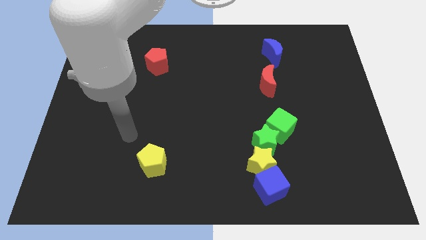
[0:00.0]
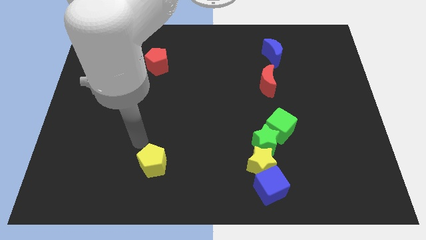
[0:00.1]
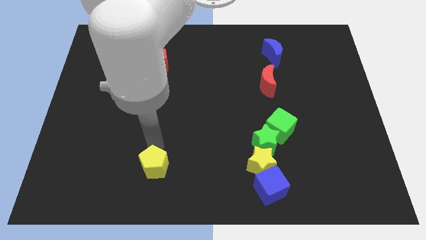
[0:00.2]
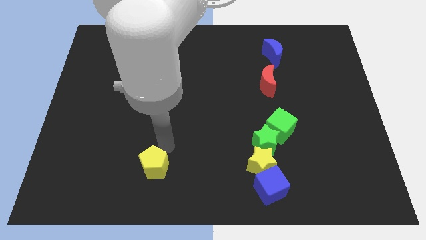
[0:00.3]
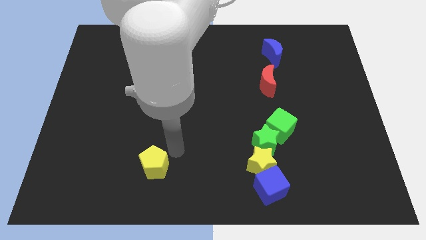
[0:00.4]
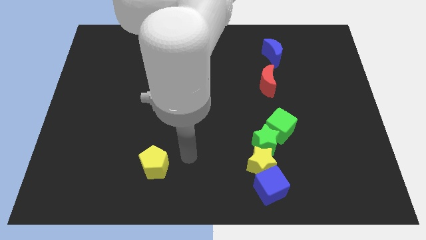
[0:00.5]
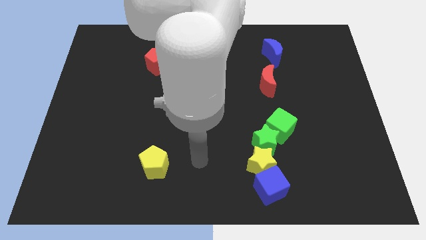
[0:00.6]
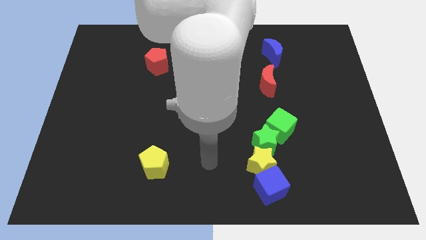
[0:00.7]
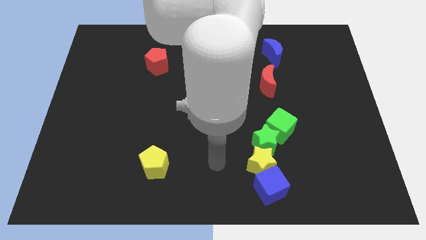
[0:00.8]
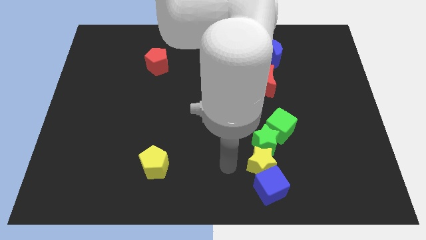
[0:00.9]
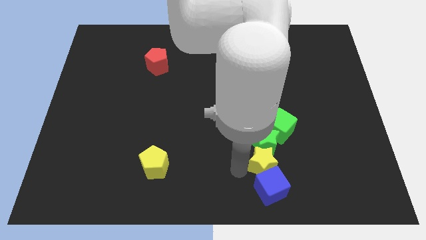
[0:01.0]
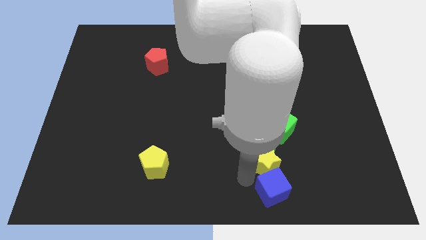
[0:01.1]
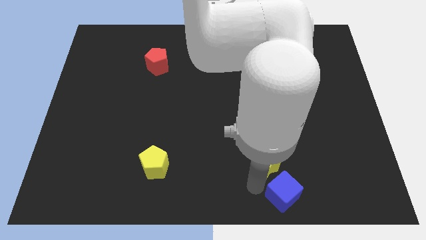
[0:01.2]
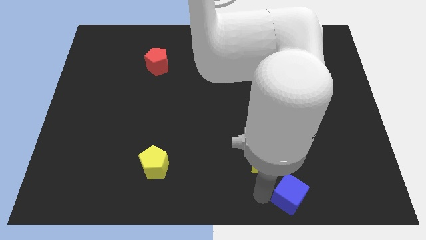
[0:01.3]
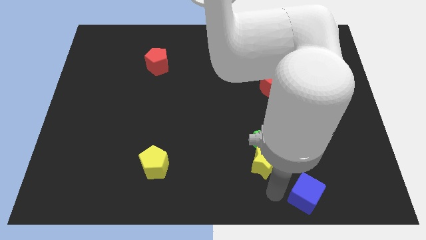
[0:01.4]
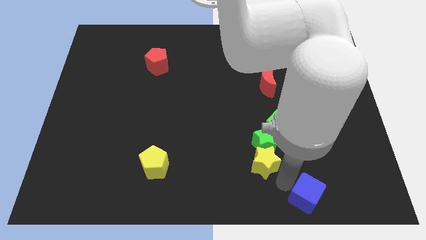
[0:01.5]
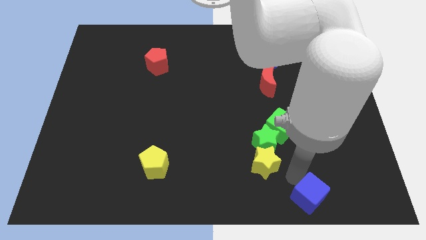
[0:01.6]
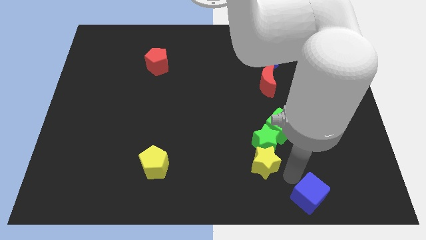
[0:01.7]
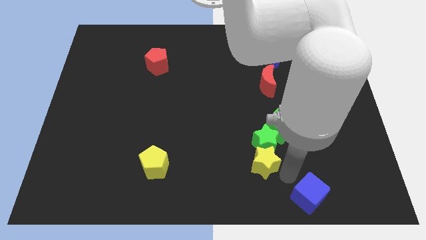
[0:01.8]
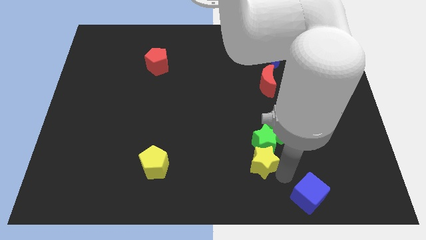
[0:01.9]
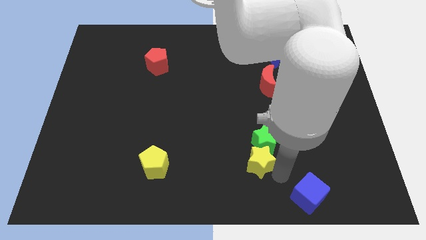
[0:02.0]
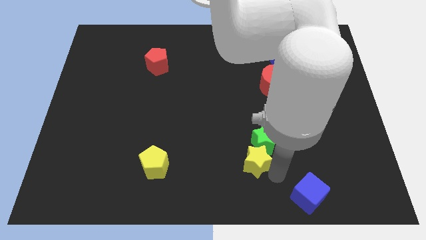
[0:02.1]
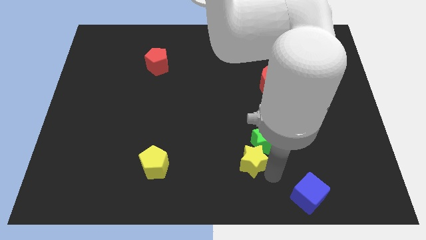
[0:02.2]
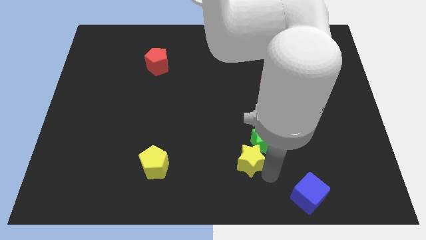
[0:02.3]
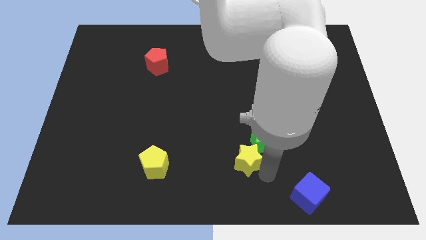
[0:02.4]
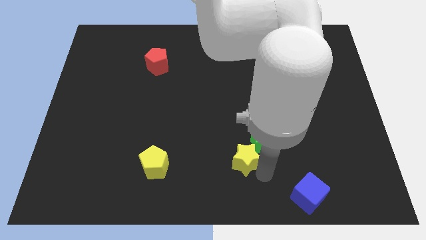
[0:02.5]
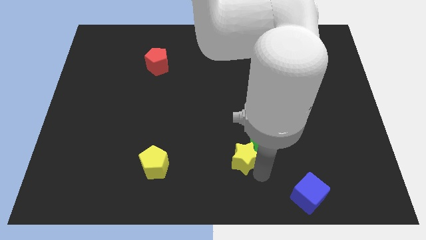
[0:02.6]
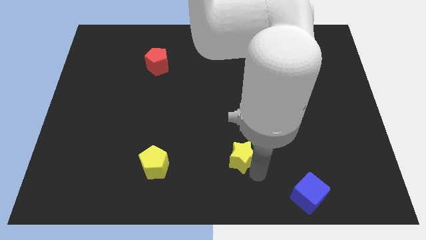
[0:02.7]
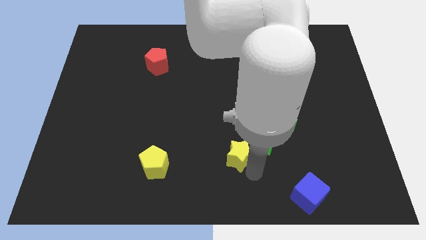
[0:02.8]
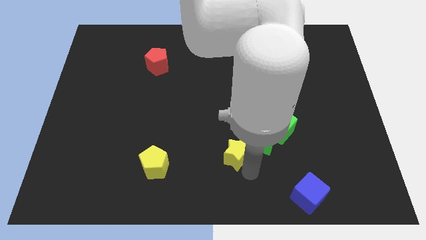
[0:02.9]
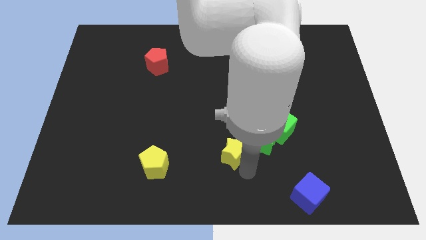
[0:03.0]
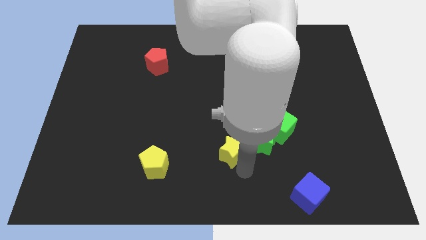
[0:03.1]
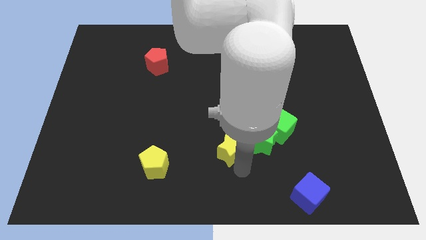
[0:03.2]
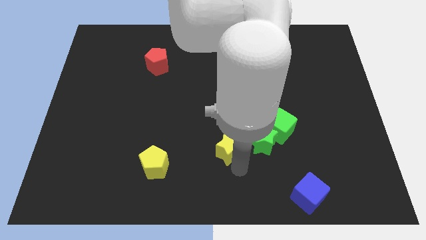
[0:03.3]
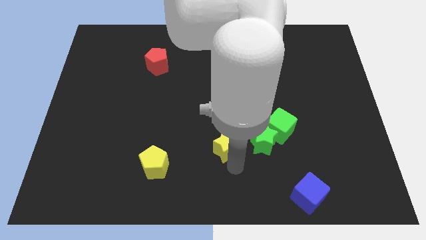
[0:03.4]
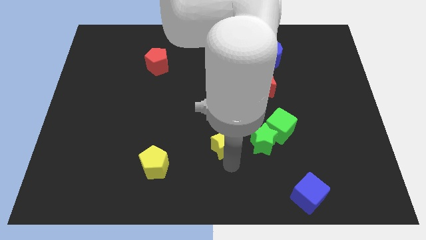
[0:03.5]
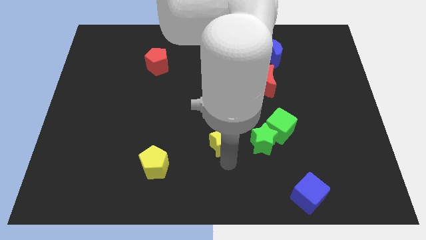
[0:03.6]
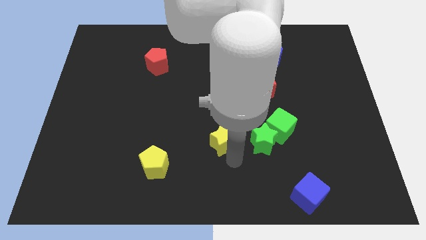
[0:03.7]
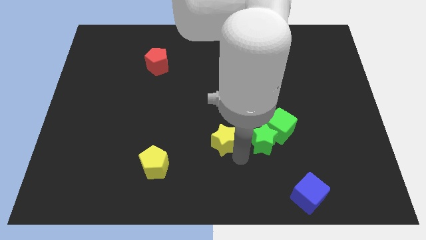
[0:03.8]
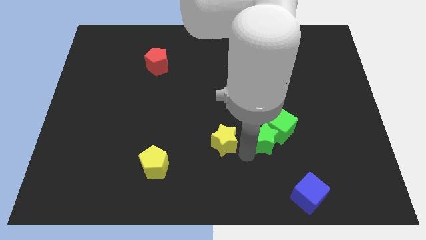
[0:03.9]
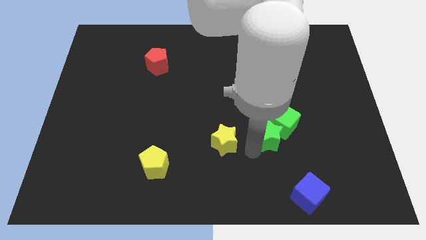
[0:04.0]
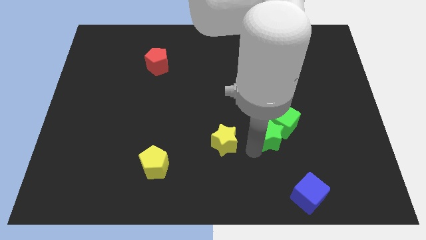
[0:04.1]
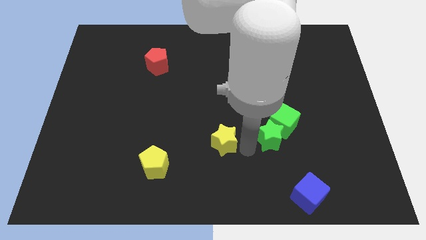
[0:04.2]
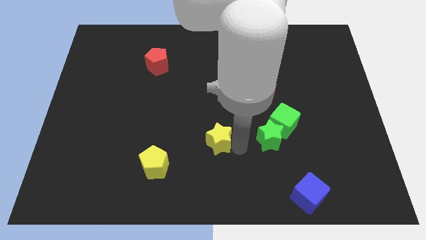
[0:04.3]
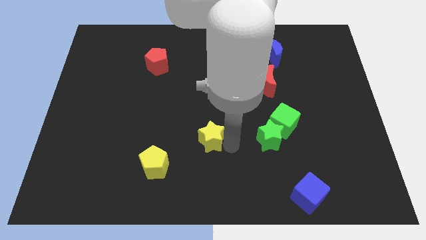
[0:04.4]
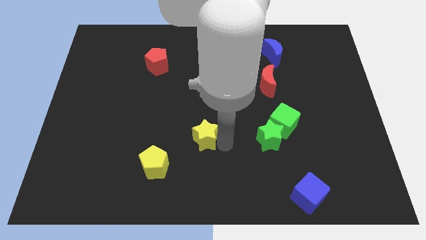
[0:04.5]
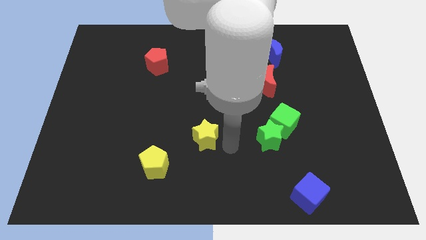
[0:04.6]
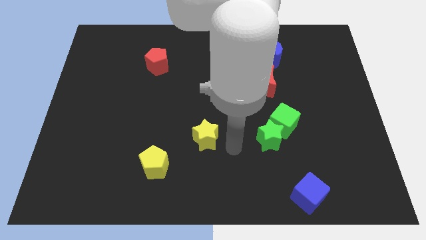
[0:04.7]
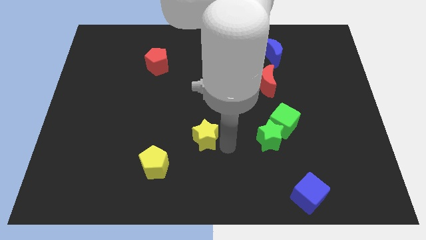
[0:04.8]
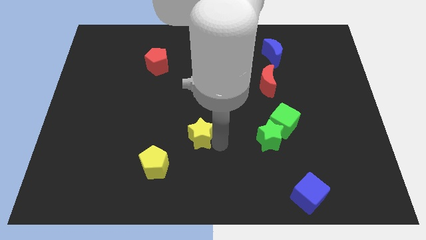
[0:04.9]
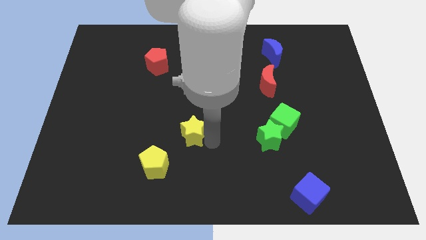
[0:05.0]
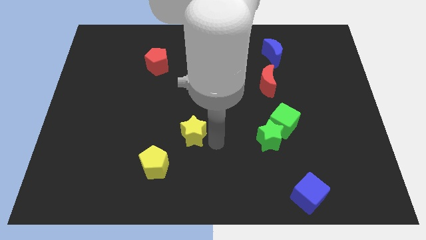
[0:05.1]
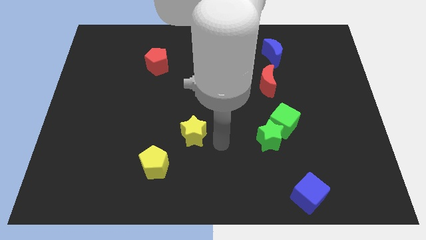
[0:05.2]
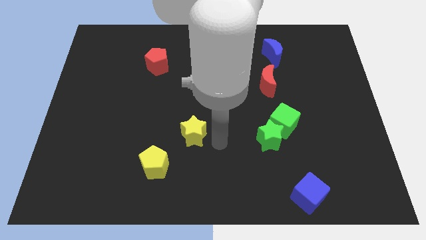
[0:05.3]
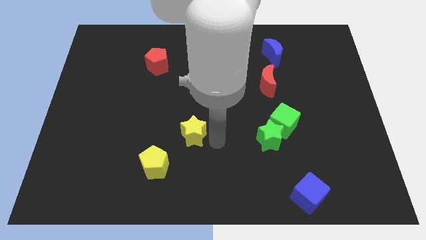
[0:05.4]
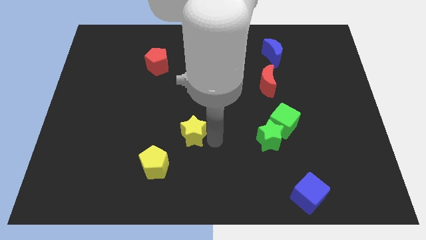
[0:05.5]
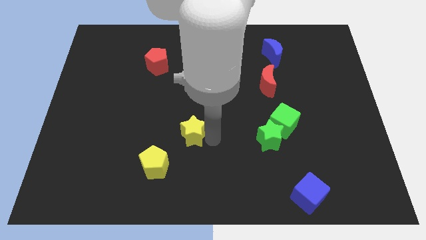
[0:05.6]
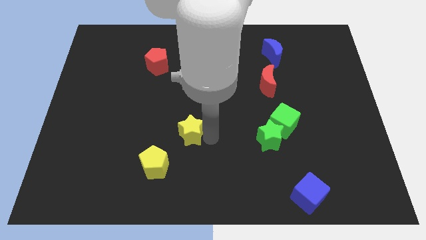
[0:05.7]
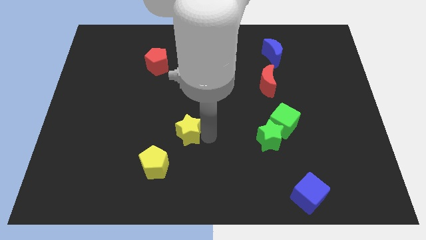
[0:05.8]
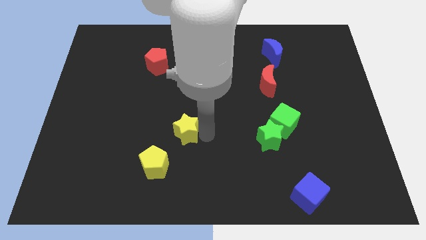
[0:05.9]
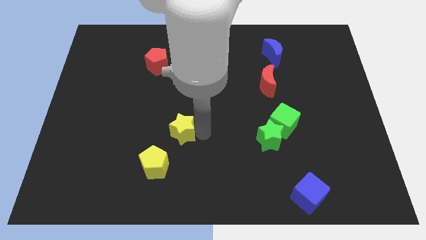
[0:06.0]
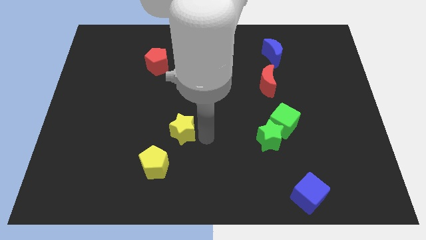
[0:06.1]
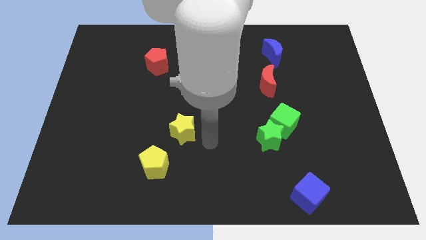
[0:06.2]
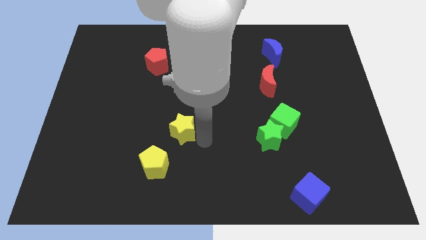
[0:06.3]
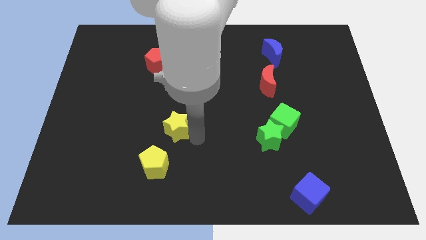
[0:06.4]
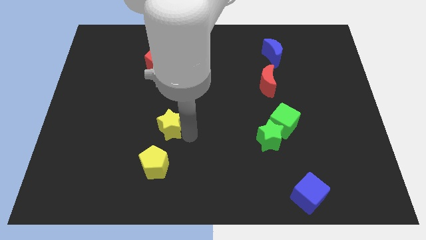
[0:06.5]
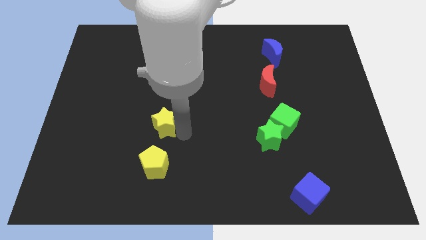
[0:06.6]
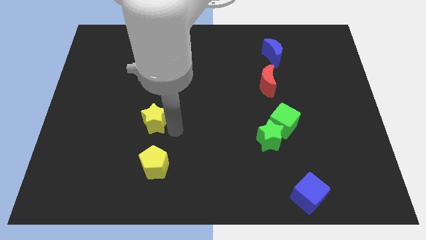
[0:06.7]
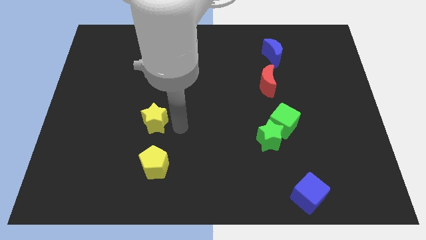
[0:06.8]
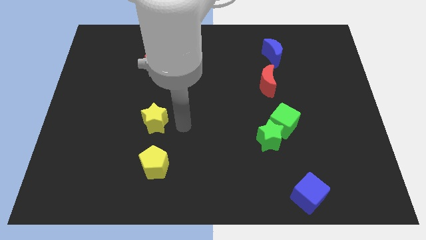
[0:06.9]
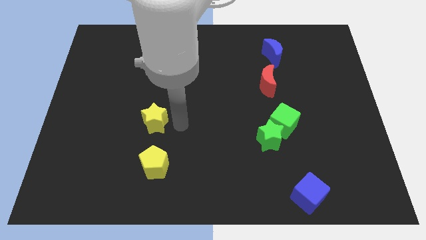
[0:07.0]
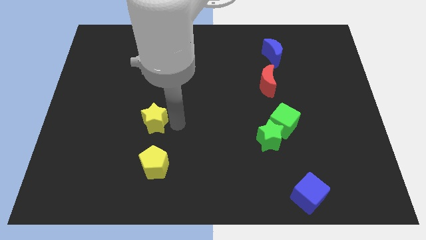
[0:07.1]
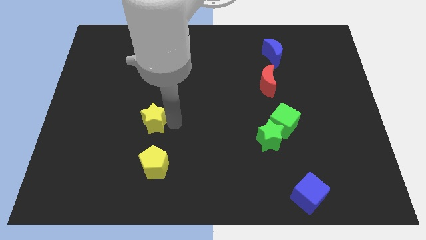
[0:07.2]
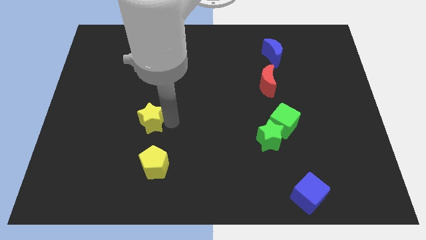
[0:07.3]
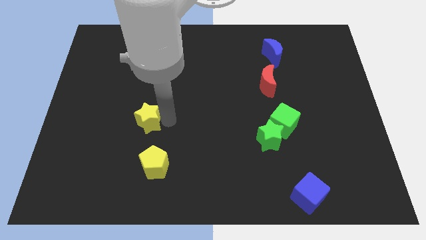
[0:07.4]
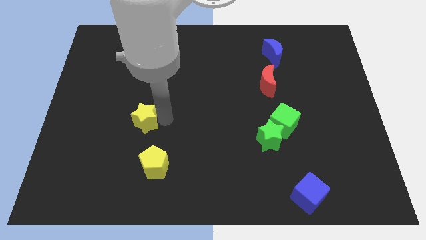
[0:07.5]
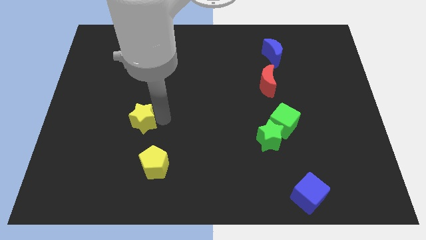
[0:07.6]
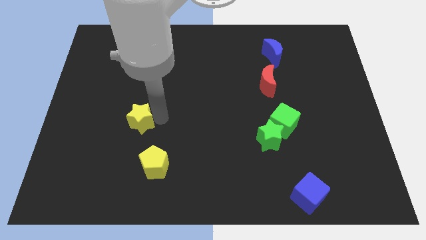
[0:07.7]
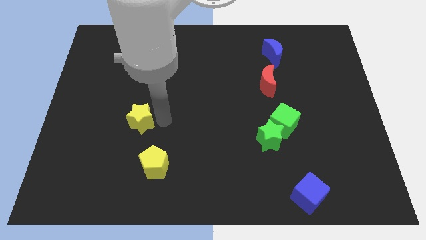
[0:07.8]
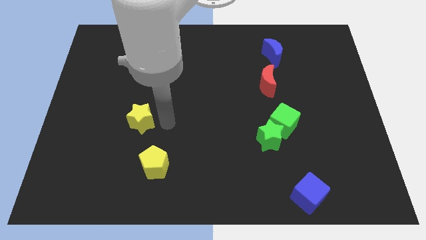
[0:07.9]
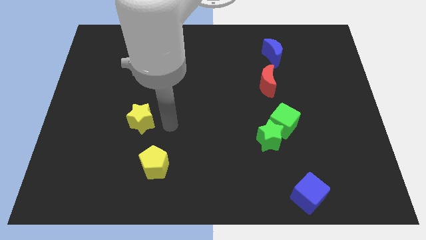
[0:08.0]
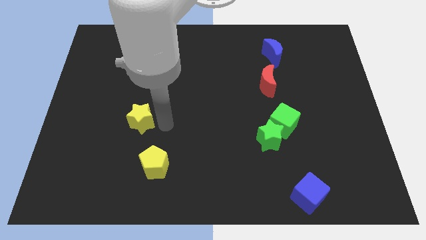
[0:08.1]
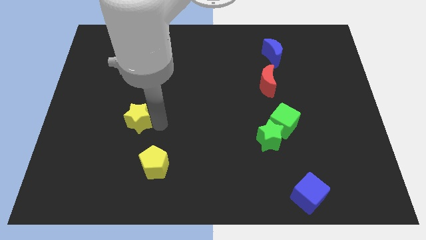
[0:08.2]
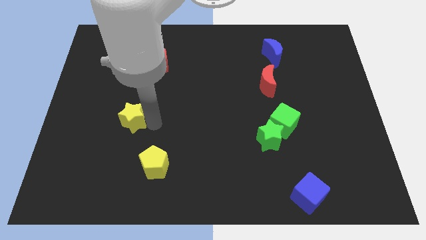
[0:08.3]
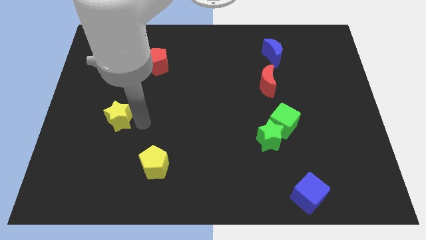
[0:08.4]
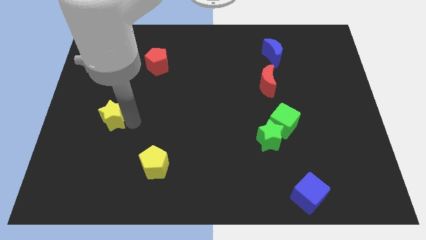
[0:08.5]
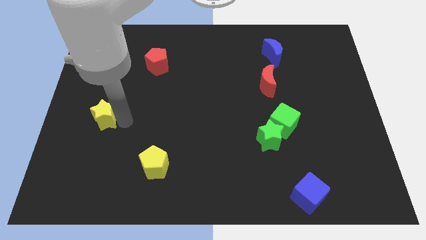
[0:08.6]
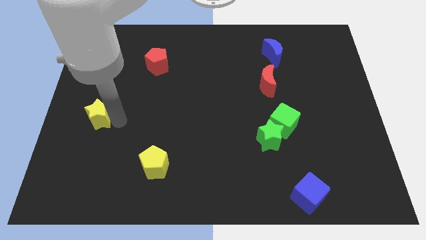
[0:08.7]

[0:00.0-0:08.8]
move the yellow star to the center left
